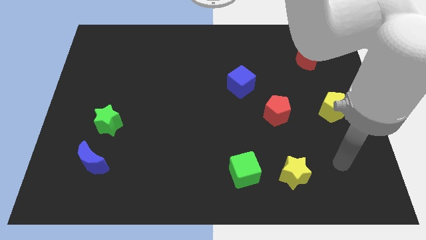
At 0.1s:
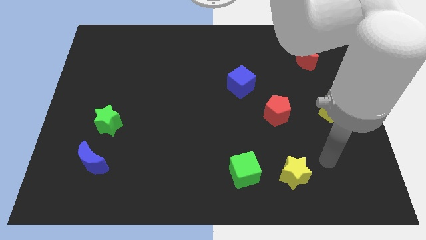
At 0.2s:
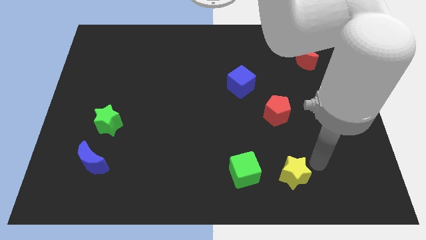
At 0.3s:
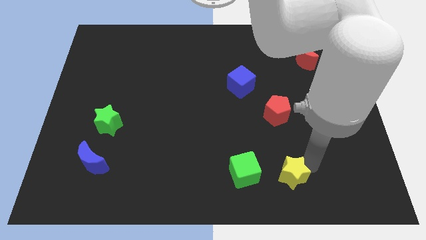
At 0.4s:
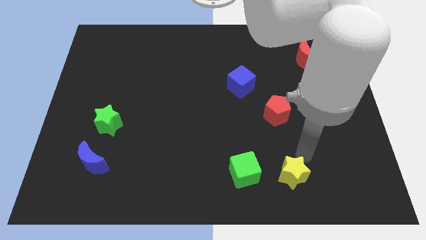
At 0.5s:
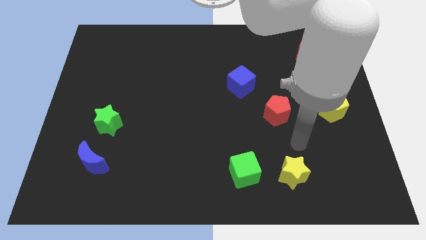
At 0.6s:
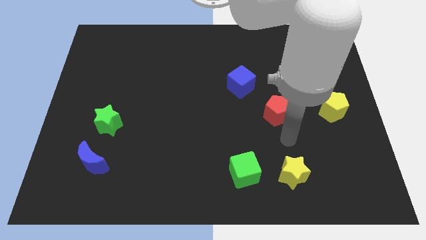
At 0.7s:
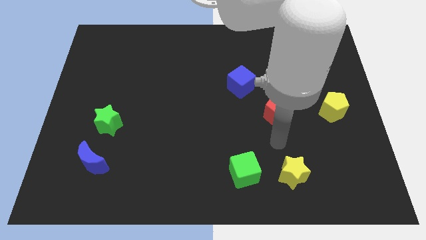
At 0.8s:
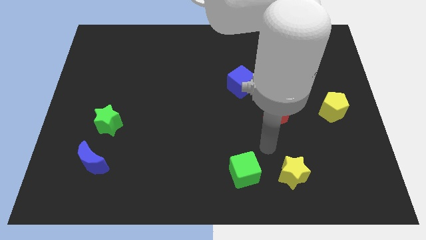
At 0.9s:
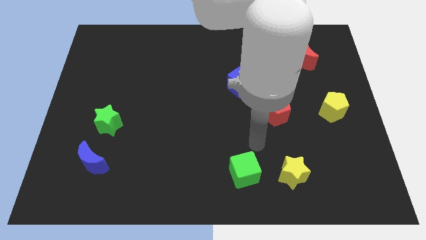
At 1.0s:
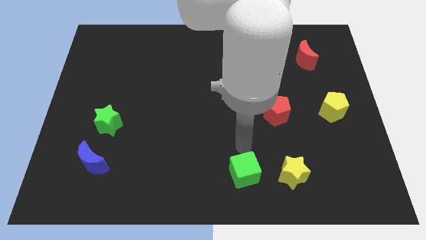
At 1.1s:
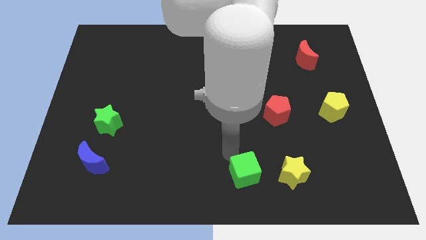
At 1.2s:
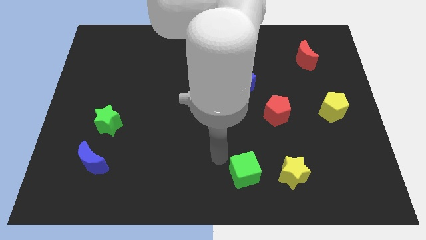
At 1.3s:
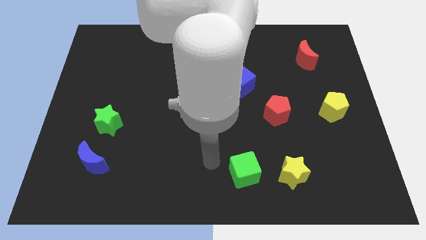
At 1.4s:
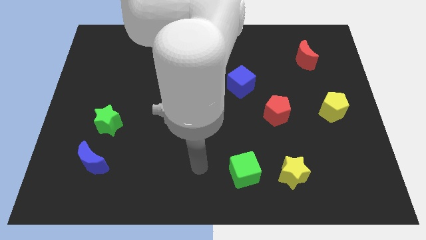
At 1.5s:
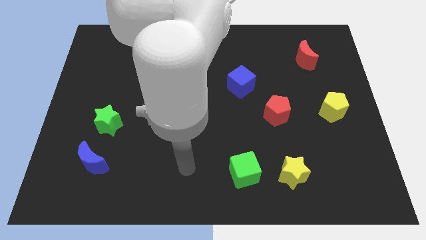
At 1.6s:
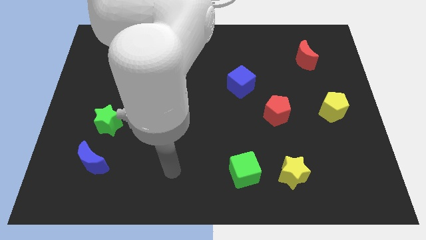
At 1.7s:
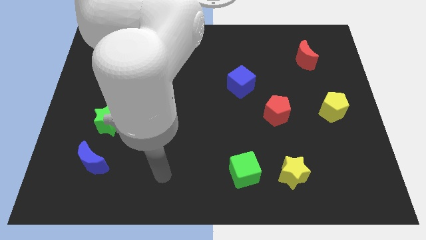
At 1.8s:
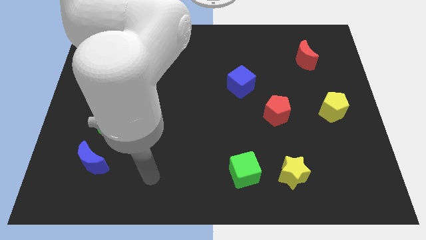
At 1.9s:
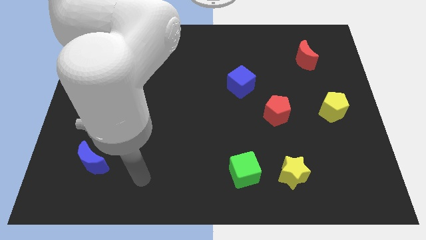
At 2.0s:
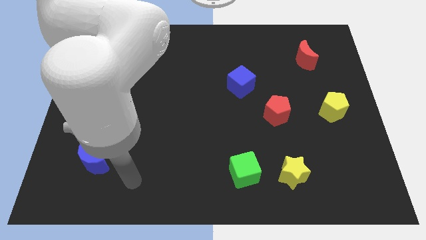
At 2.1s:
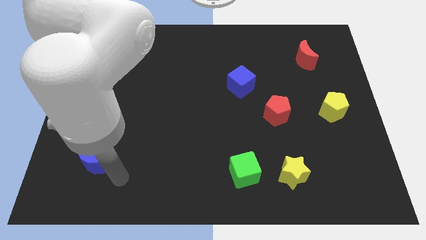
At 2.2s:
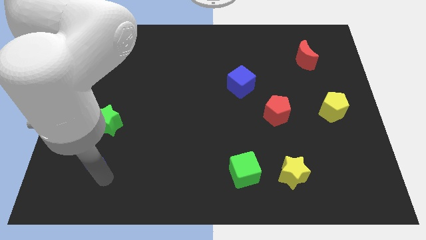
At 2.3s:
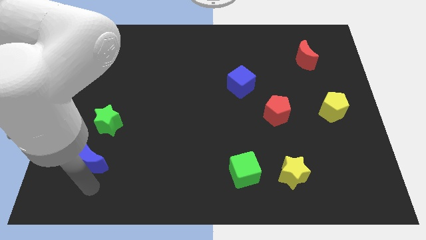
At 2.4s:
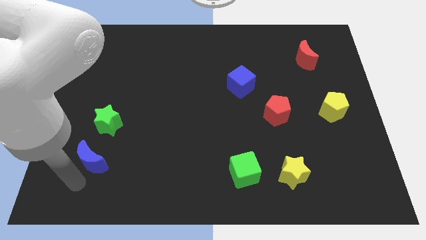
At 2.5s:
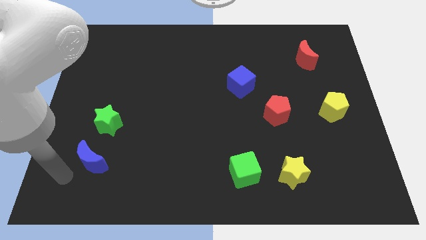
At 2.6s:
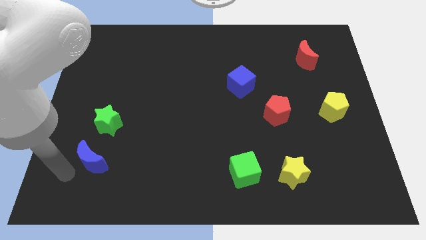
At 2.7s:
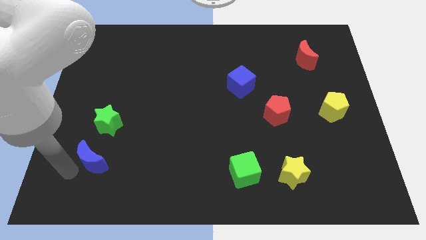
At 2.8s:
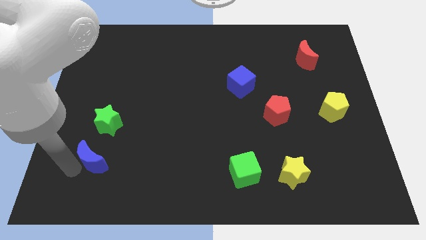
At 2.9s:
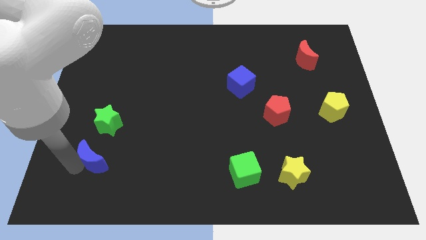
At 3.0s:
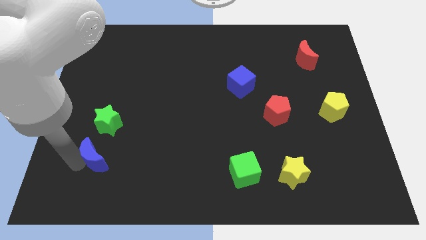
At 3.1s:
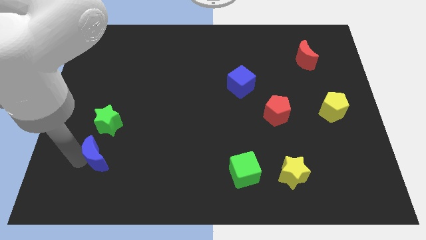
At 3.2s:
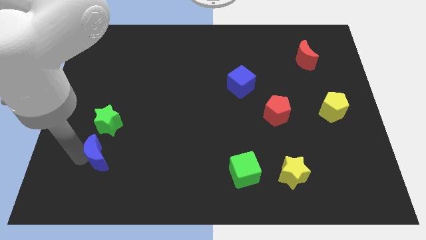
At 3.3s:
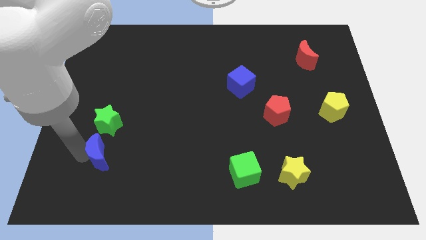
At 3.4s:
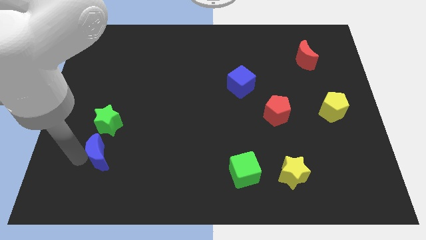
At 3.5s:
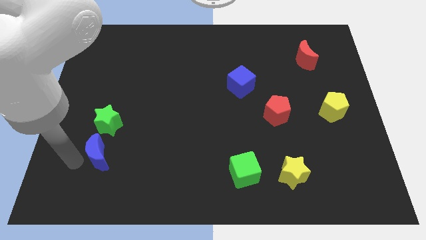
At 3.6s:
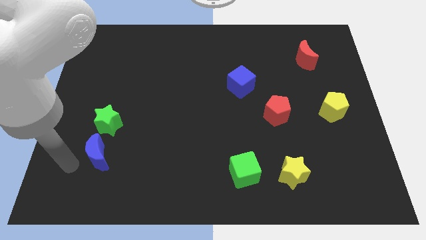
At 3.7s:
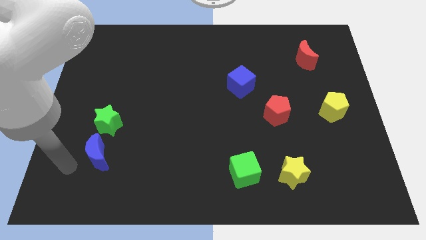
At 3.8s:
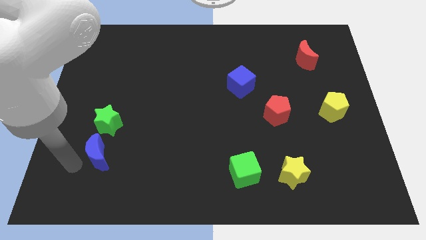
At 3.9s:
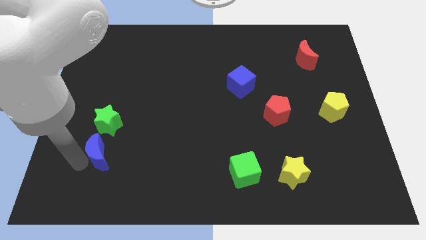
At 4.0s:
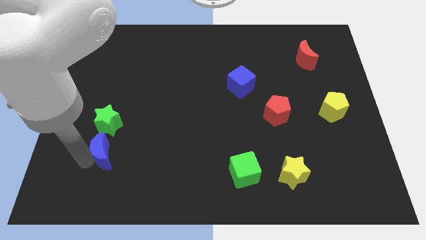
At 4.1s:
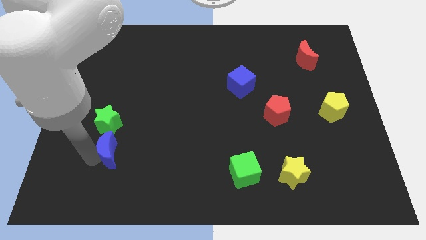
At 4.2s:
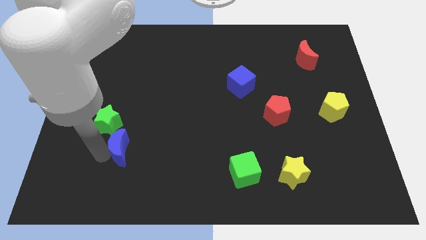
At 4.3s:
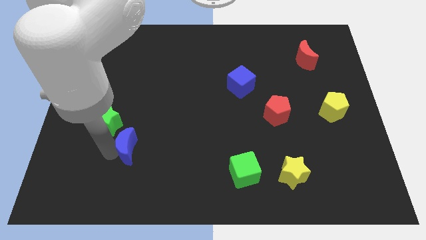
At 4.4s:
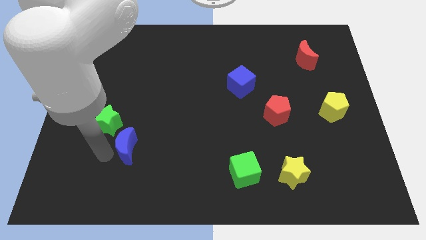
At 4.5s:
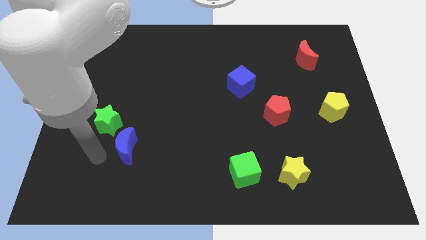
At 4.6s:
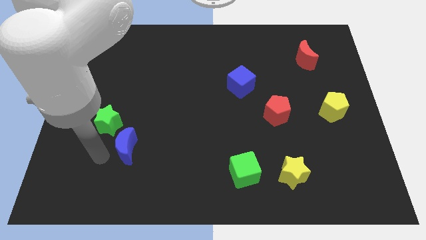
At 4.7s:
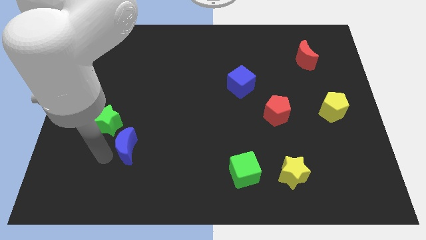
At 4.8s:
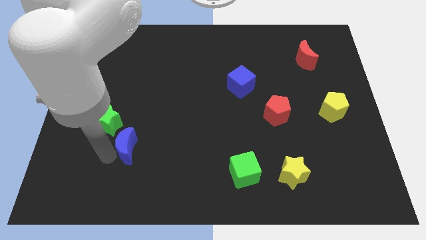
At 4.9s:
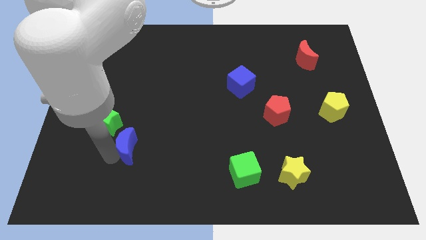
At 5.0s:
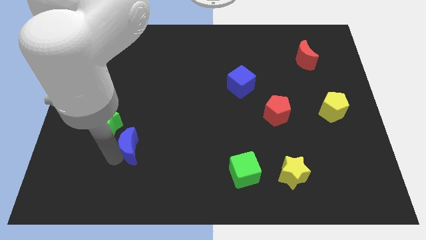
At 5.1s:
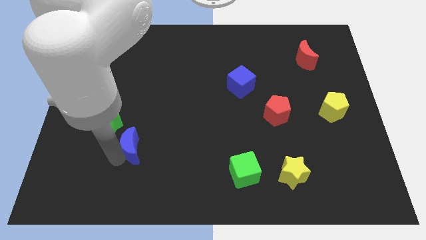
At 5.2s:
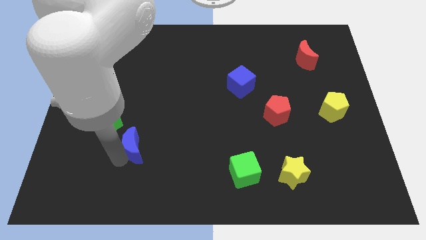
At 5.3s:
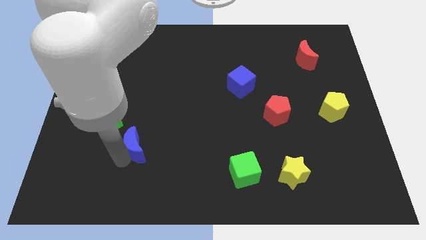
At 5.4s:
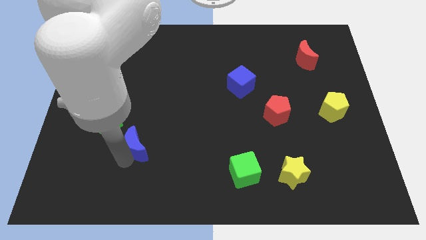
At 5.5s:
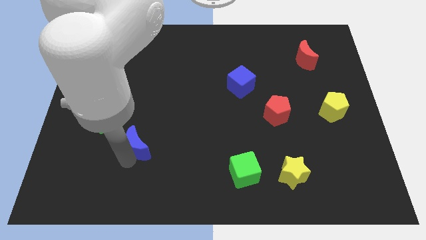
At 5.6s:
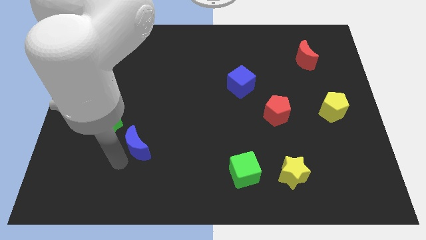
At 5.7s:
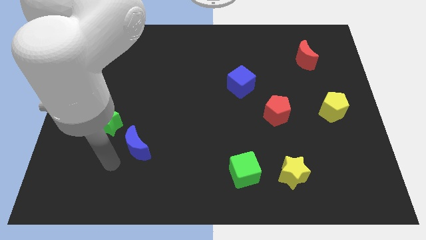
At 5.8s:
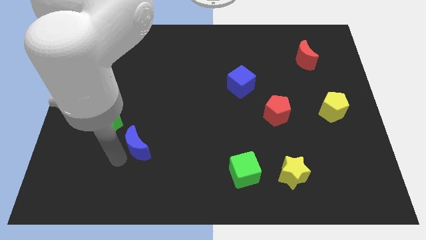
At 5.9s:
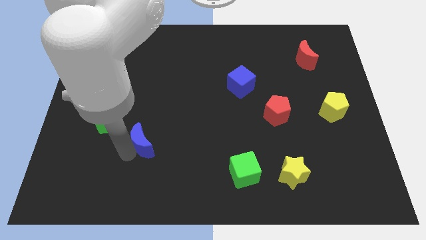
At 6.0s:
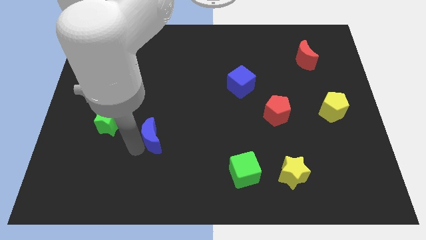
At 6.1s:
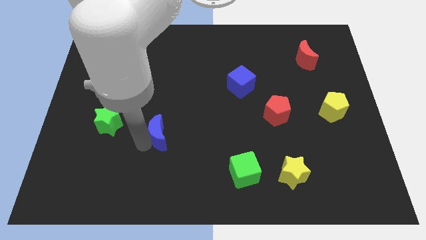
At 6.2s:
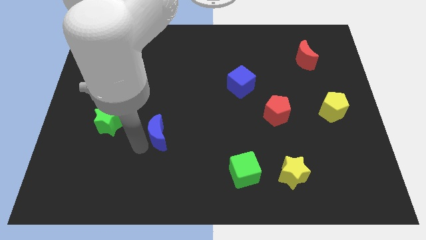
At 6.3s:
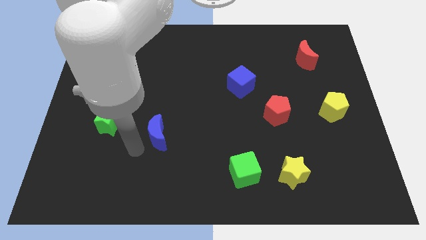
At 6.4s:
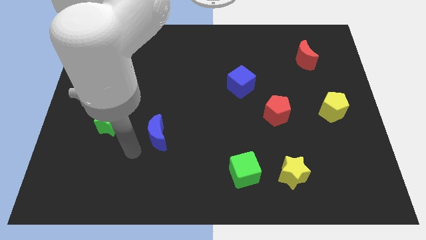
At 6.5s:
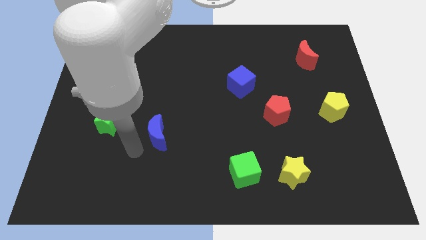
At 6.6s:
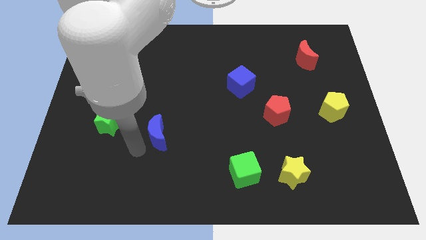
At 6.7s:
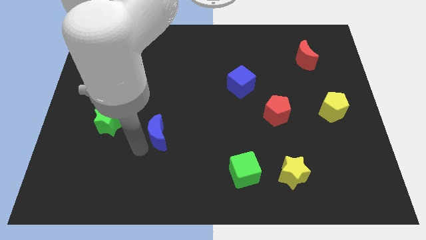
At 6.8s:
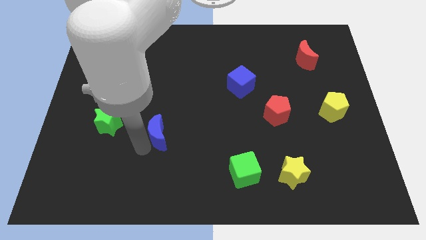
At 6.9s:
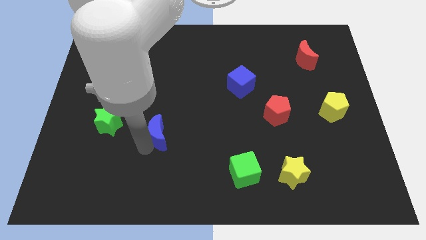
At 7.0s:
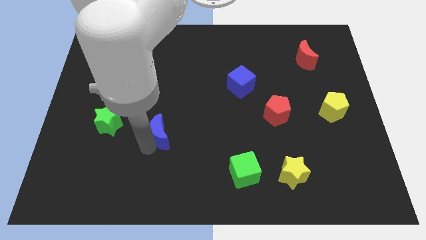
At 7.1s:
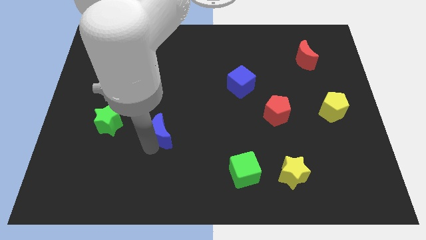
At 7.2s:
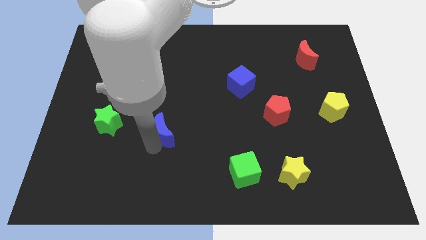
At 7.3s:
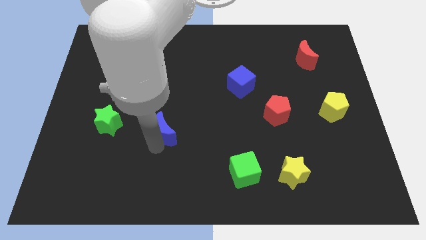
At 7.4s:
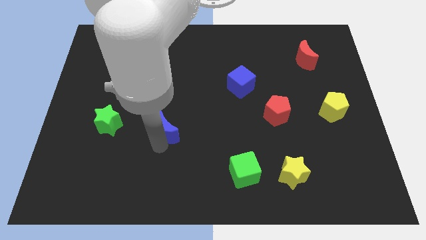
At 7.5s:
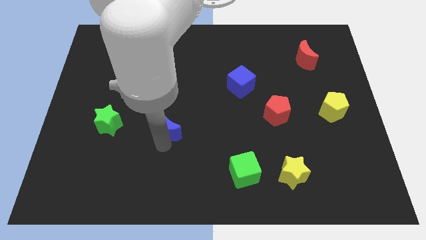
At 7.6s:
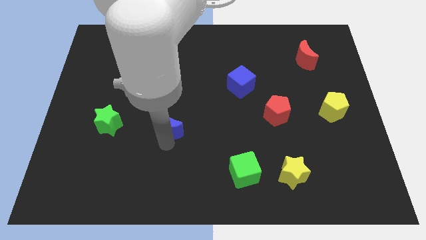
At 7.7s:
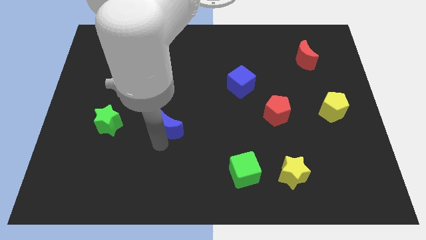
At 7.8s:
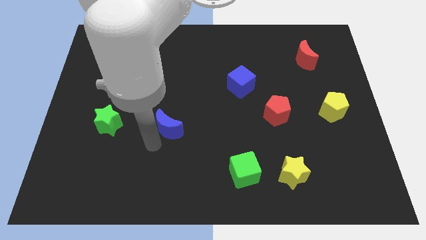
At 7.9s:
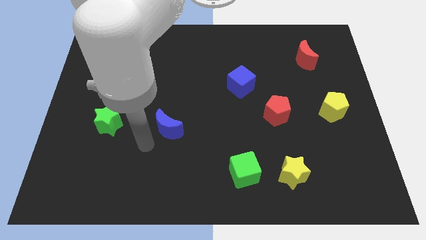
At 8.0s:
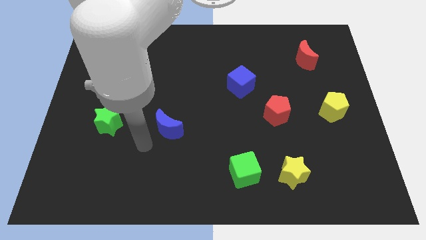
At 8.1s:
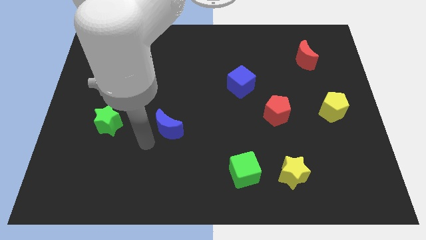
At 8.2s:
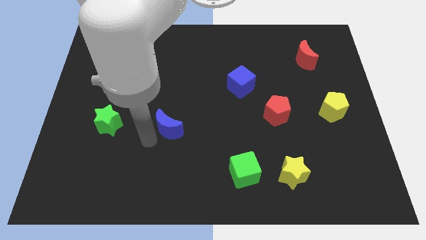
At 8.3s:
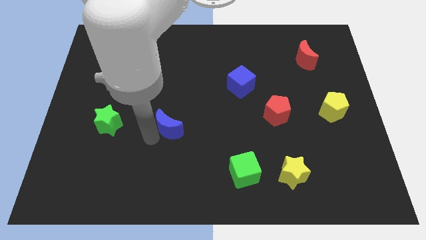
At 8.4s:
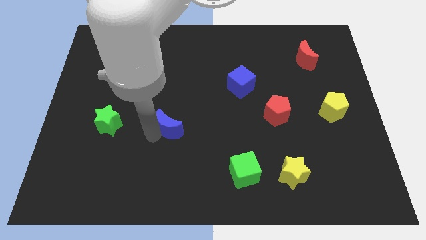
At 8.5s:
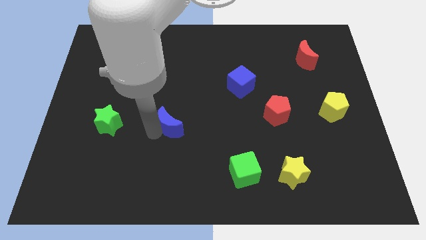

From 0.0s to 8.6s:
slide the blue moon to the center of the board
